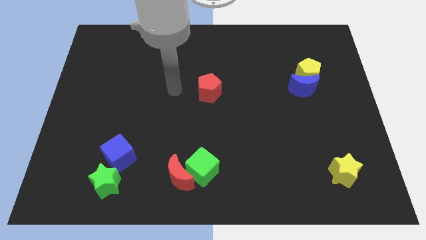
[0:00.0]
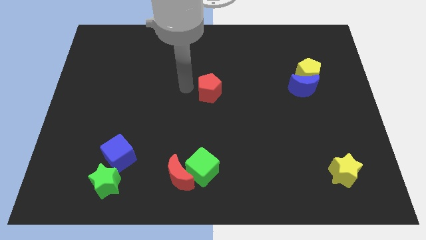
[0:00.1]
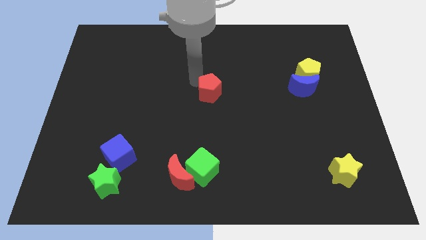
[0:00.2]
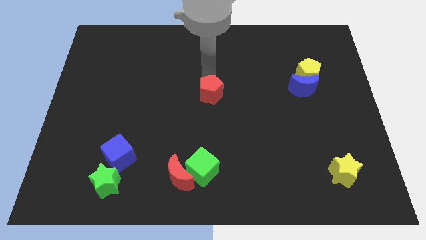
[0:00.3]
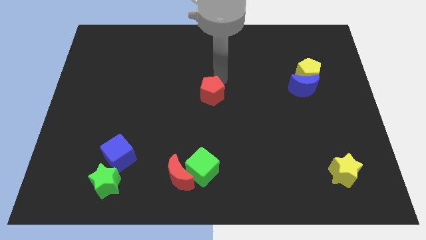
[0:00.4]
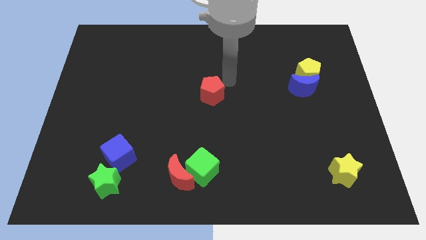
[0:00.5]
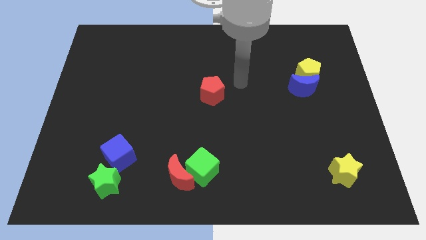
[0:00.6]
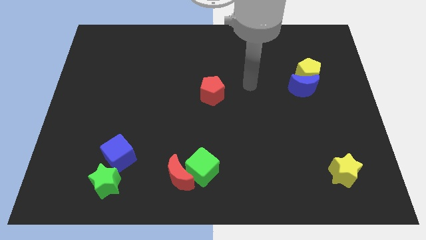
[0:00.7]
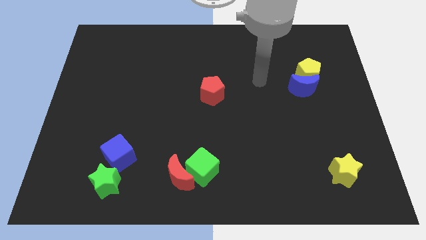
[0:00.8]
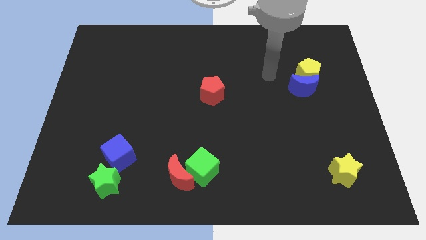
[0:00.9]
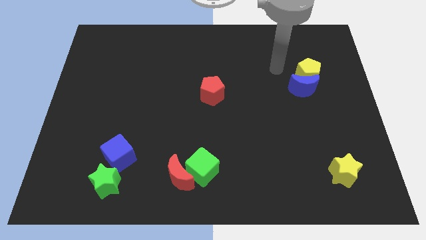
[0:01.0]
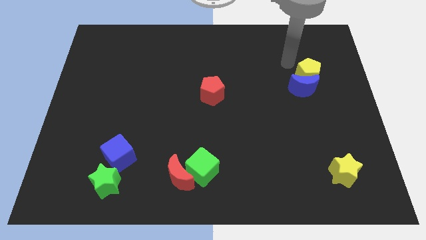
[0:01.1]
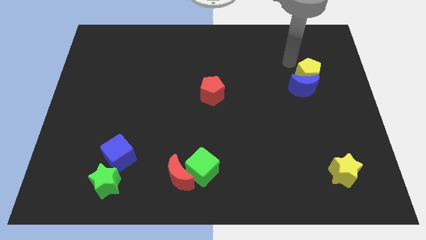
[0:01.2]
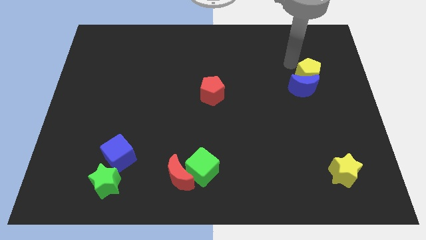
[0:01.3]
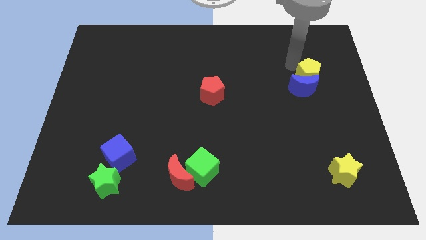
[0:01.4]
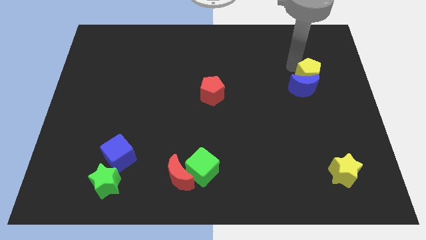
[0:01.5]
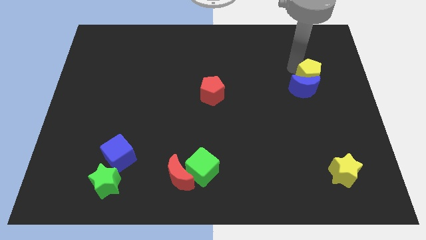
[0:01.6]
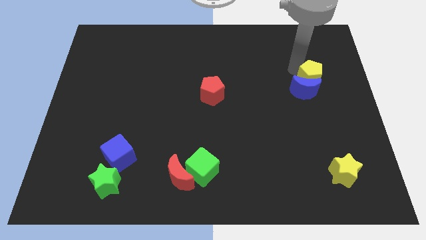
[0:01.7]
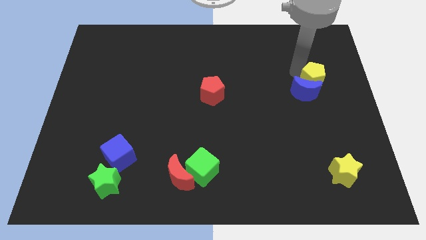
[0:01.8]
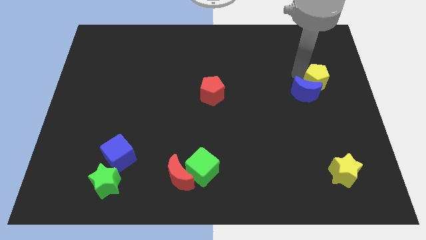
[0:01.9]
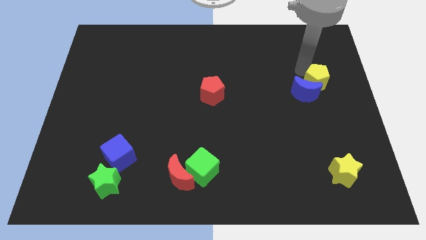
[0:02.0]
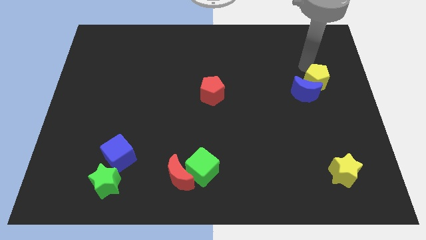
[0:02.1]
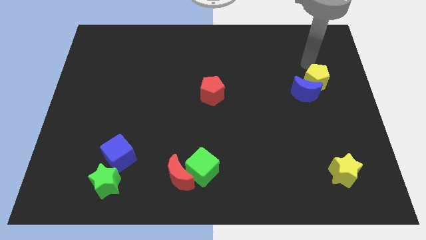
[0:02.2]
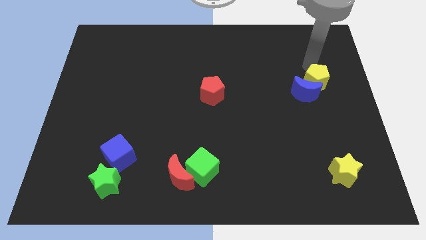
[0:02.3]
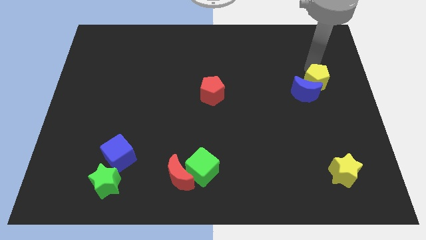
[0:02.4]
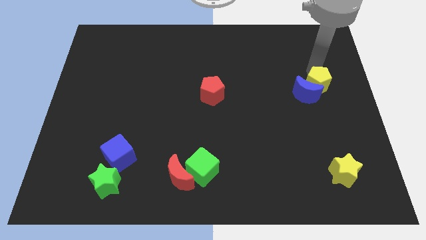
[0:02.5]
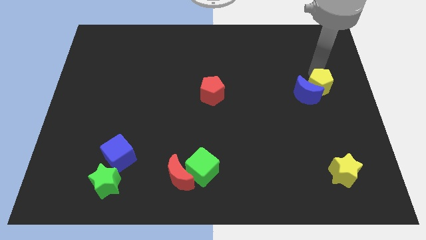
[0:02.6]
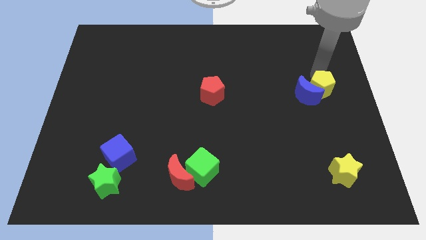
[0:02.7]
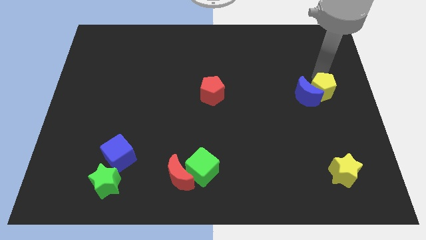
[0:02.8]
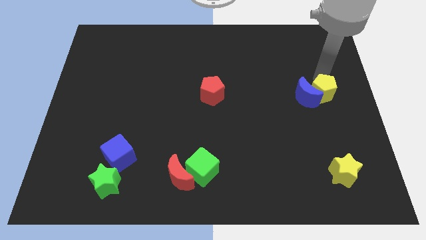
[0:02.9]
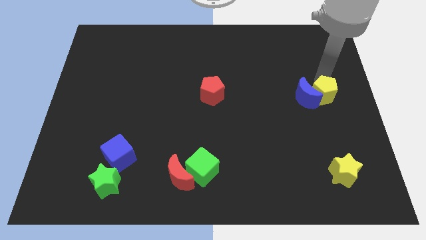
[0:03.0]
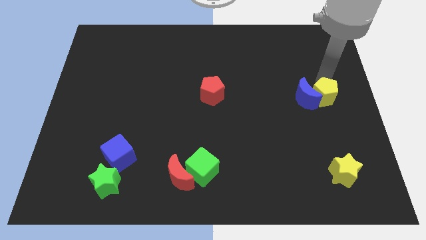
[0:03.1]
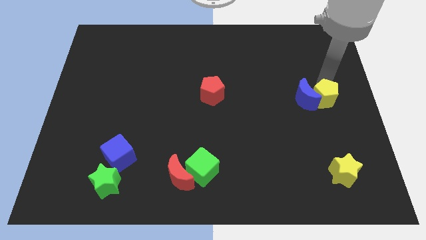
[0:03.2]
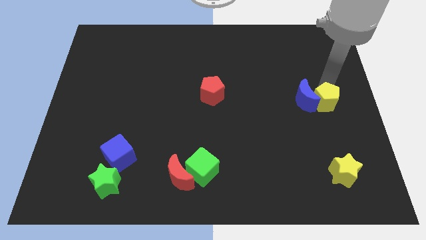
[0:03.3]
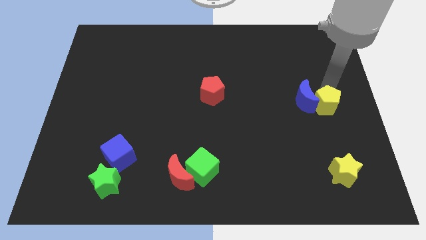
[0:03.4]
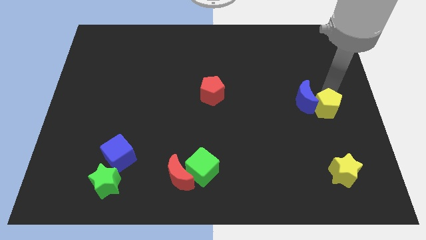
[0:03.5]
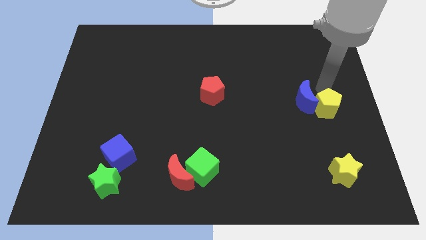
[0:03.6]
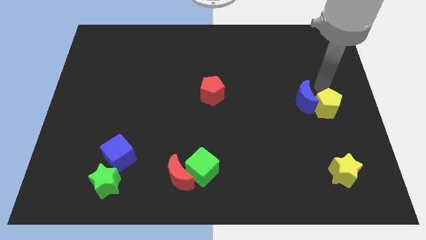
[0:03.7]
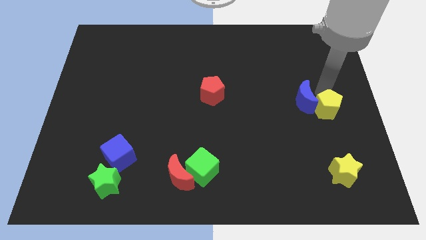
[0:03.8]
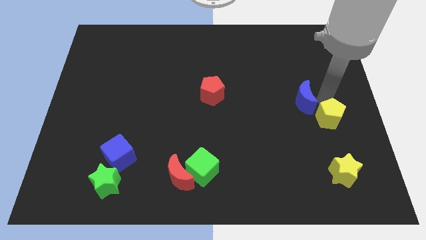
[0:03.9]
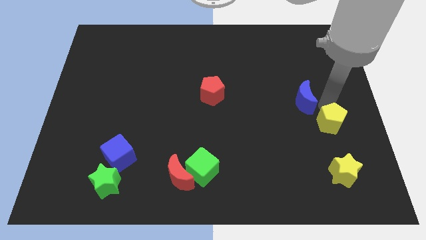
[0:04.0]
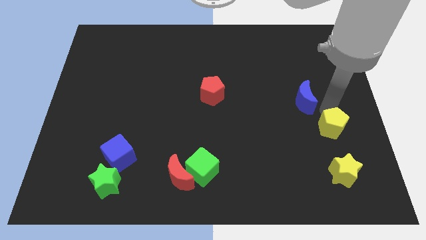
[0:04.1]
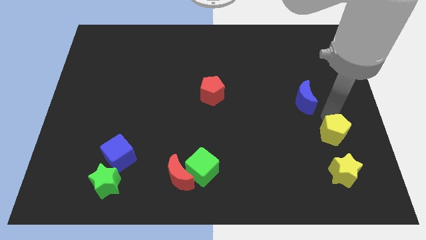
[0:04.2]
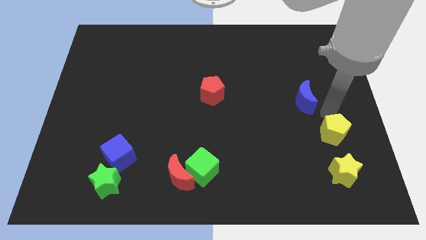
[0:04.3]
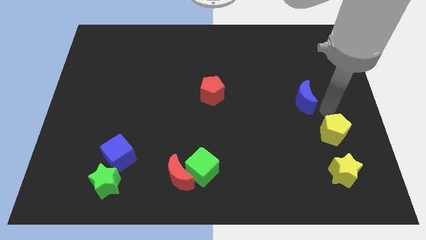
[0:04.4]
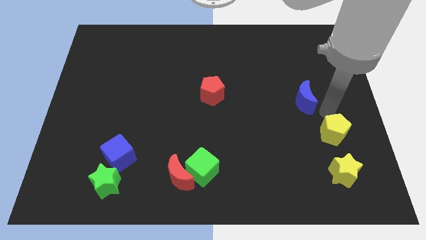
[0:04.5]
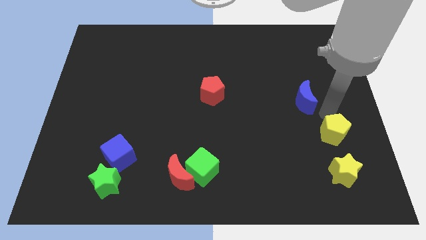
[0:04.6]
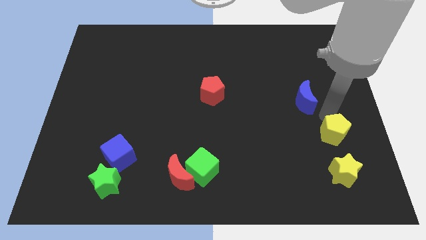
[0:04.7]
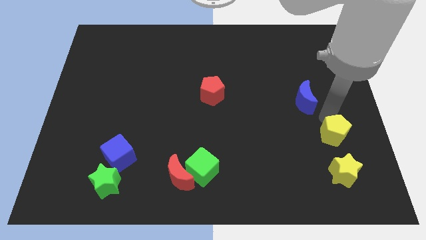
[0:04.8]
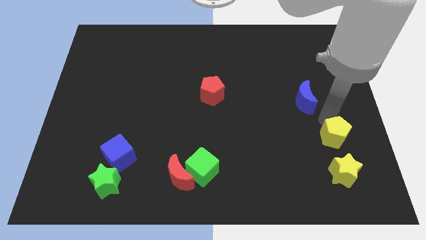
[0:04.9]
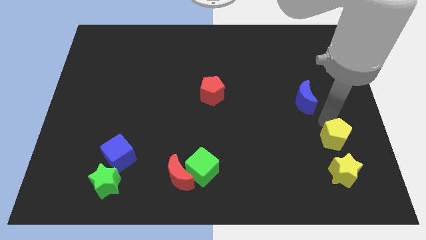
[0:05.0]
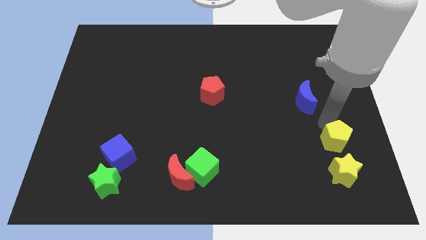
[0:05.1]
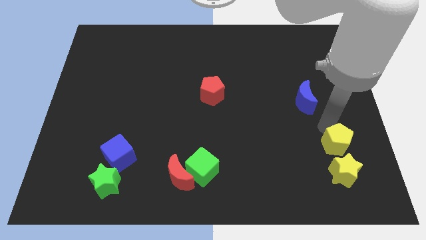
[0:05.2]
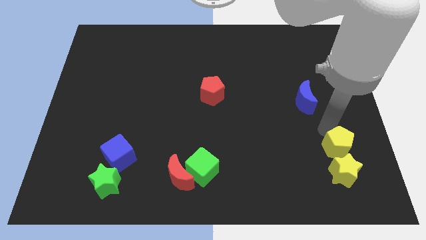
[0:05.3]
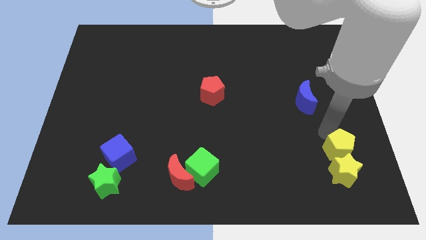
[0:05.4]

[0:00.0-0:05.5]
move the yellow pentagon to the yellow star

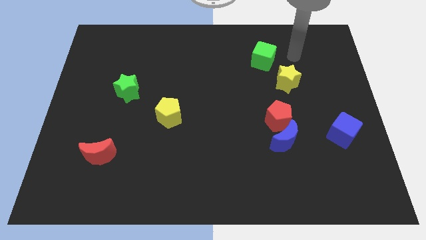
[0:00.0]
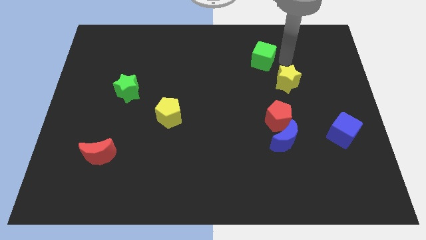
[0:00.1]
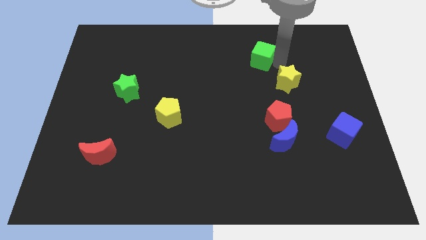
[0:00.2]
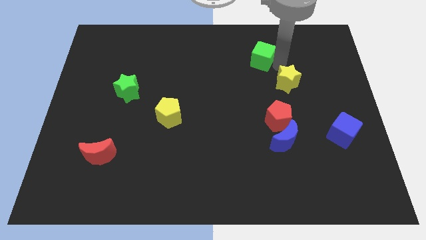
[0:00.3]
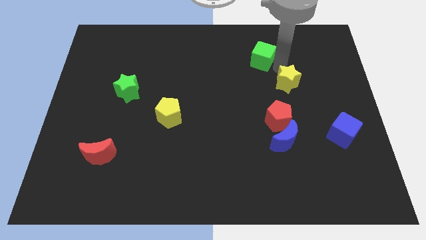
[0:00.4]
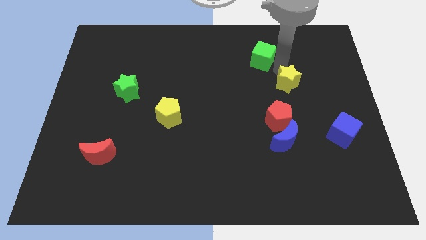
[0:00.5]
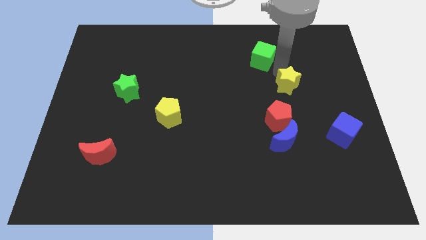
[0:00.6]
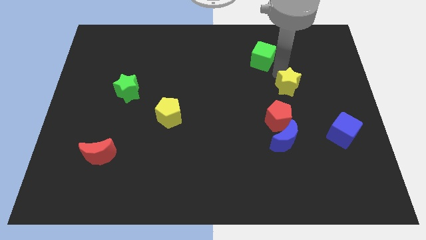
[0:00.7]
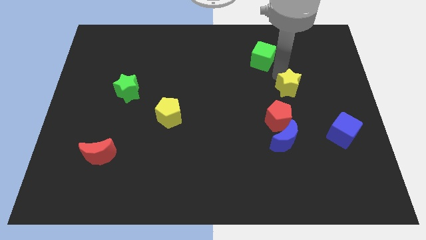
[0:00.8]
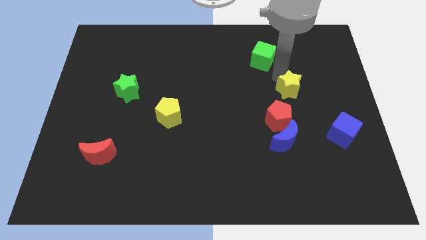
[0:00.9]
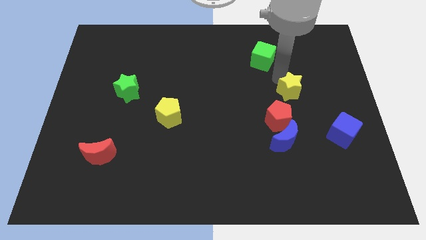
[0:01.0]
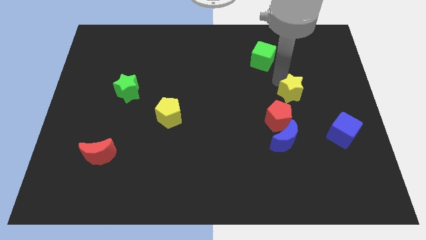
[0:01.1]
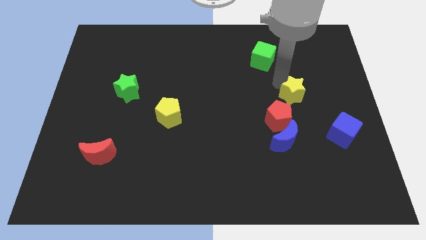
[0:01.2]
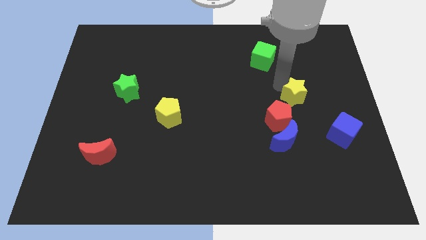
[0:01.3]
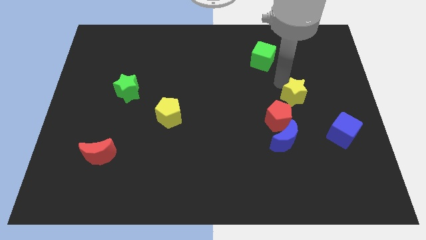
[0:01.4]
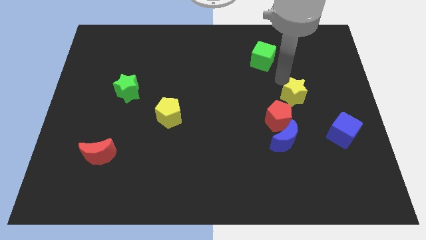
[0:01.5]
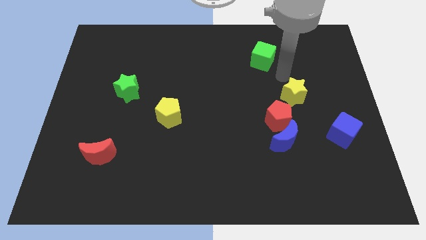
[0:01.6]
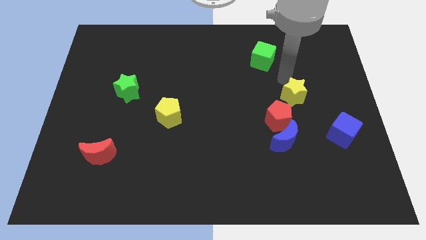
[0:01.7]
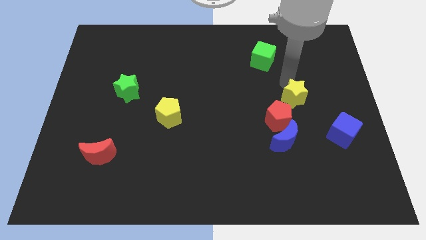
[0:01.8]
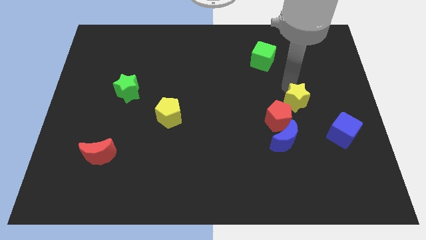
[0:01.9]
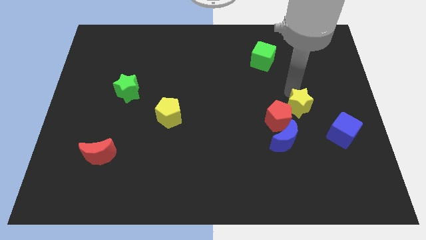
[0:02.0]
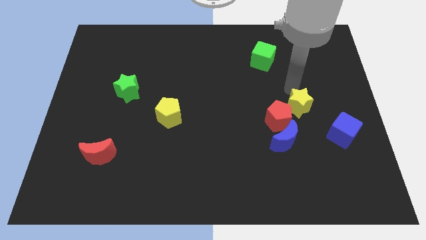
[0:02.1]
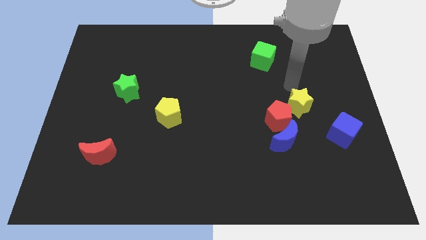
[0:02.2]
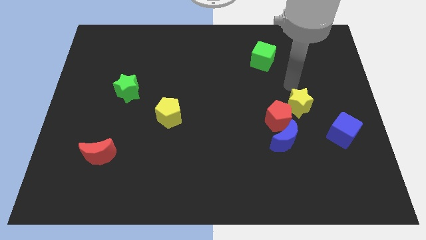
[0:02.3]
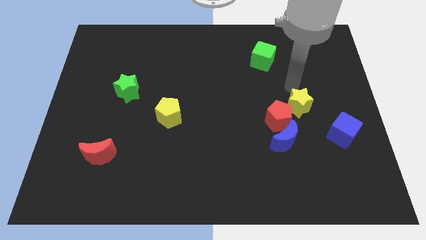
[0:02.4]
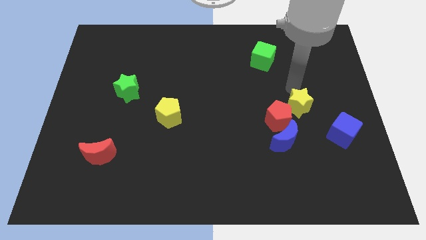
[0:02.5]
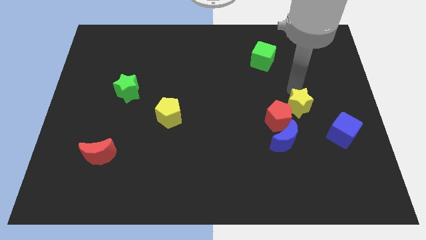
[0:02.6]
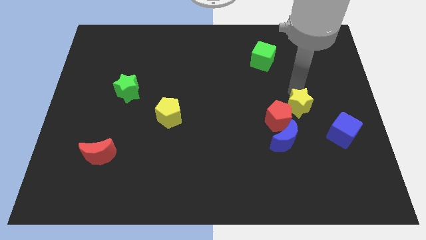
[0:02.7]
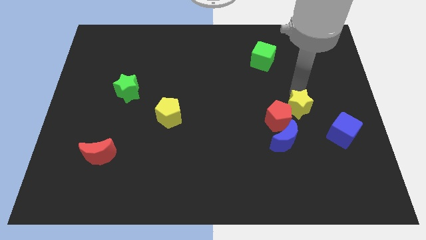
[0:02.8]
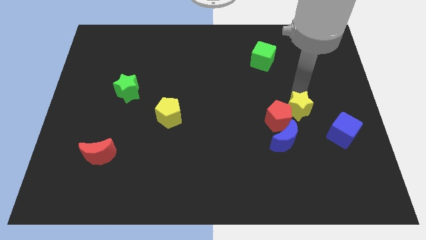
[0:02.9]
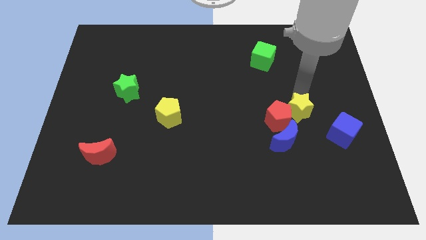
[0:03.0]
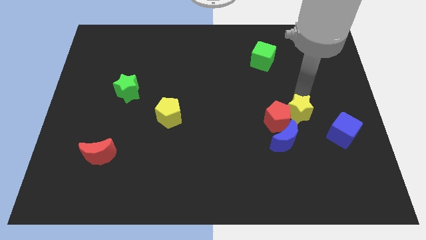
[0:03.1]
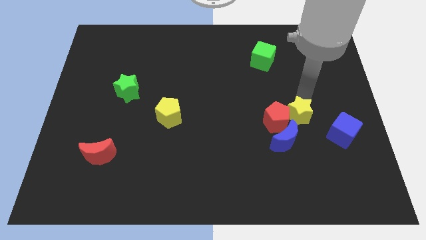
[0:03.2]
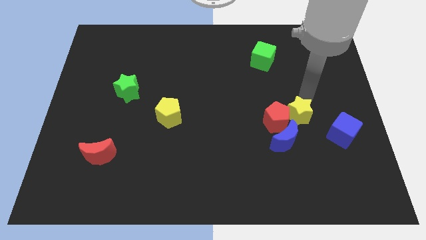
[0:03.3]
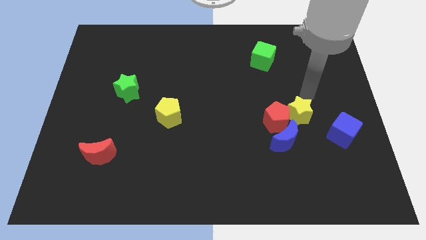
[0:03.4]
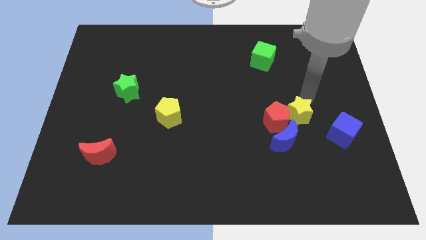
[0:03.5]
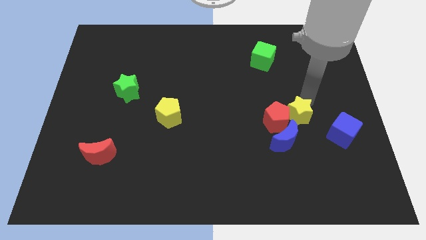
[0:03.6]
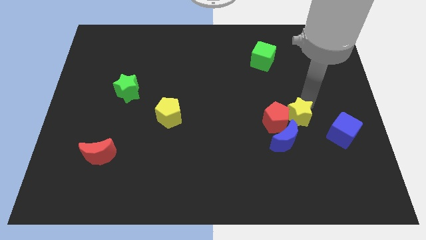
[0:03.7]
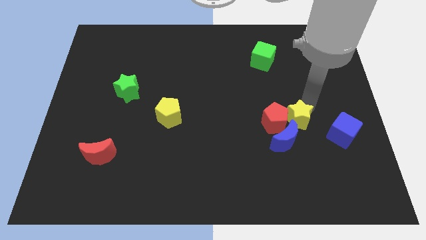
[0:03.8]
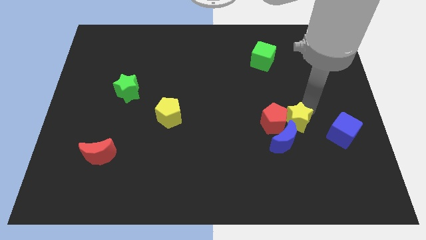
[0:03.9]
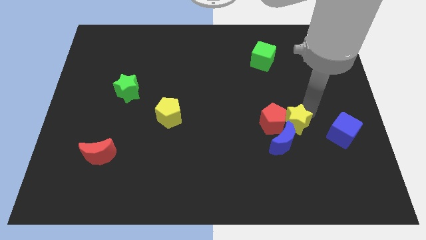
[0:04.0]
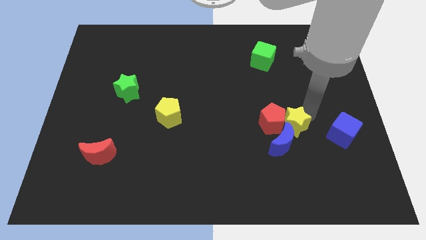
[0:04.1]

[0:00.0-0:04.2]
push the yellow star close to the blue moon
